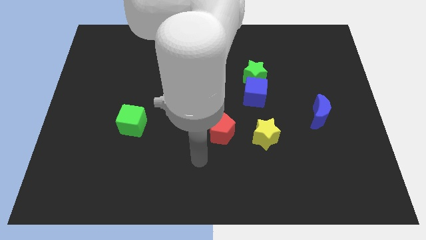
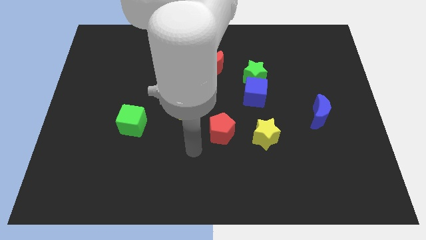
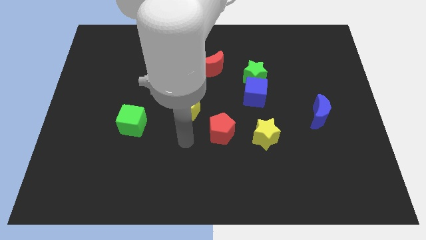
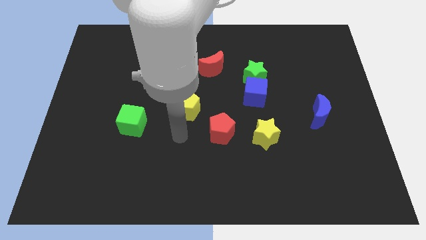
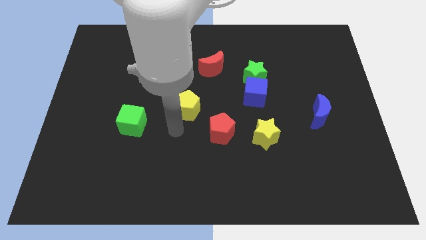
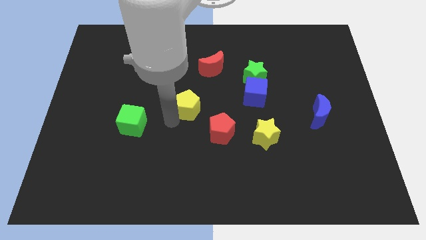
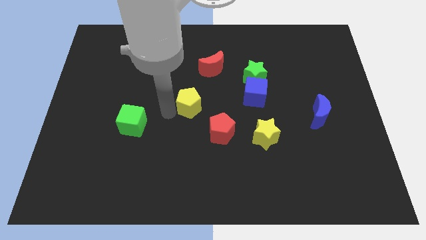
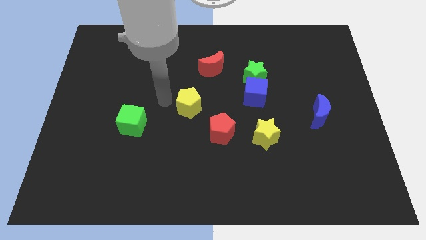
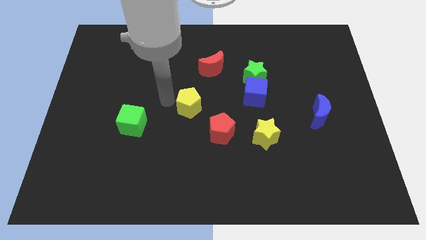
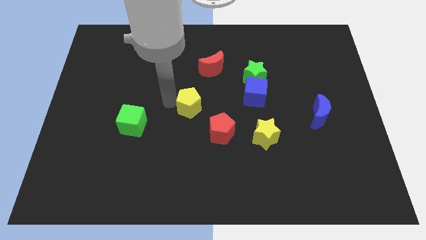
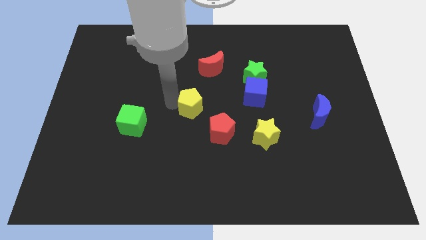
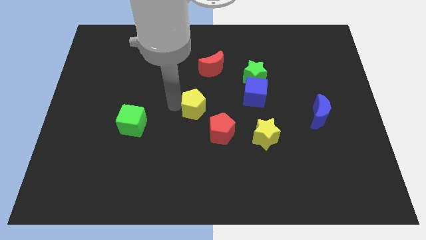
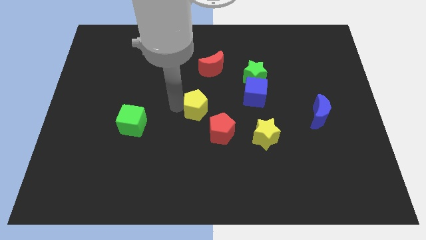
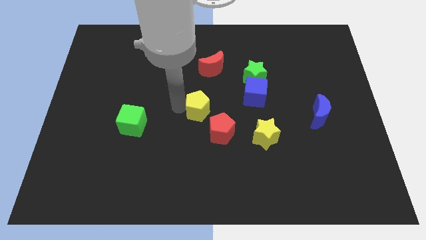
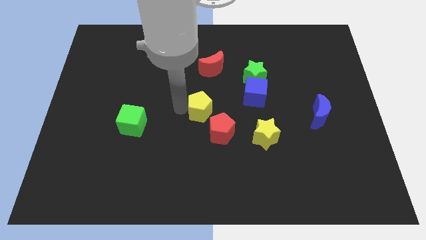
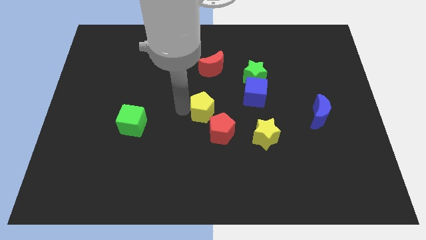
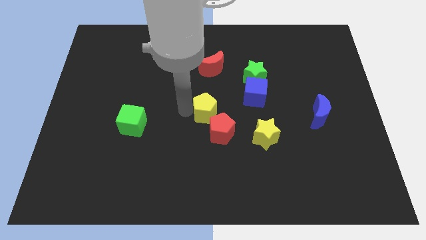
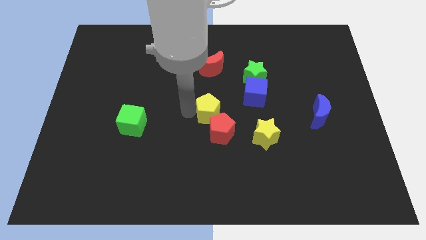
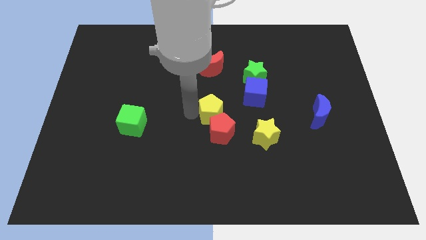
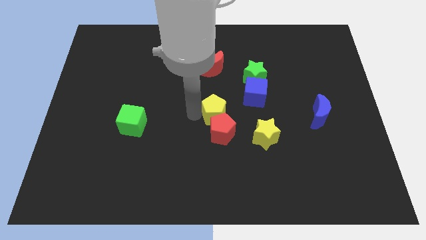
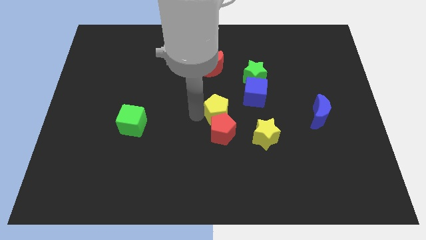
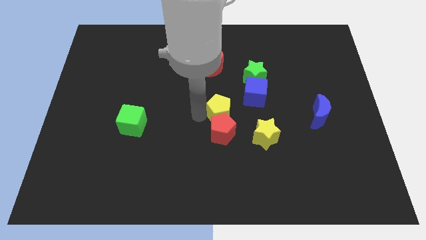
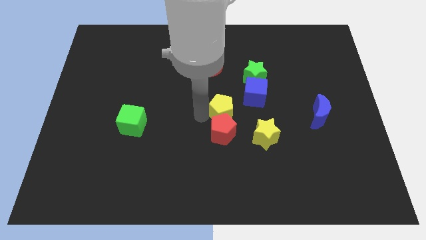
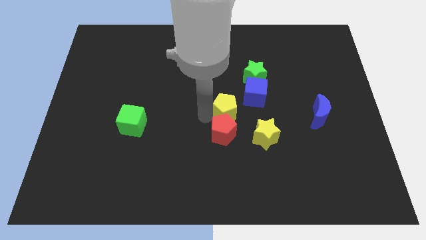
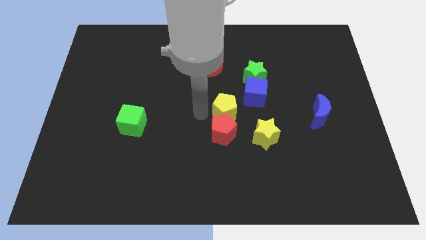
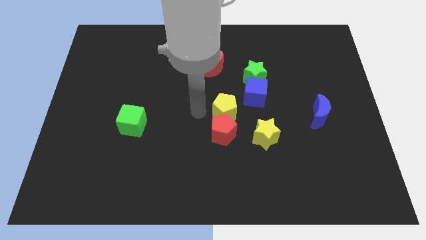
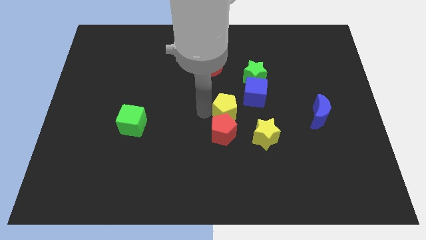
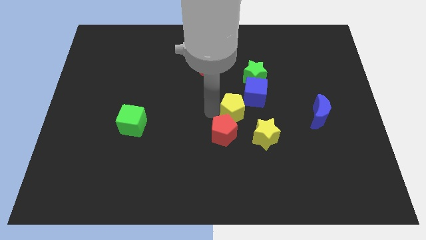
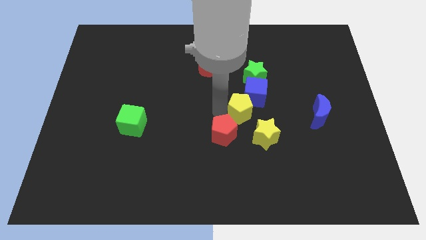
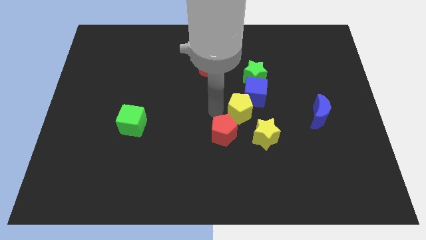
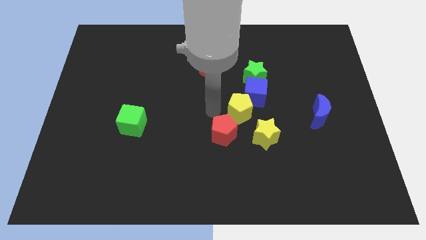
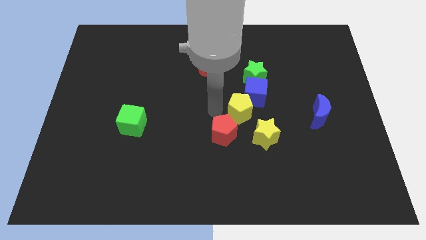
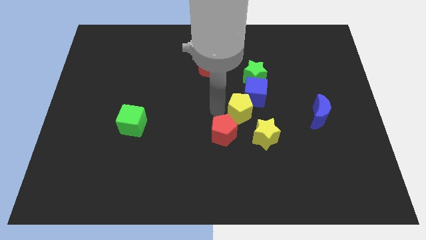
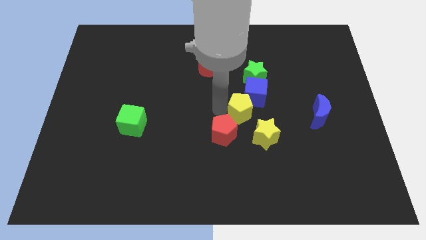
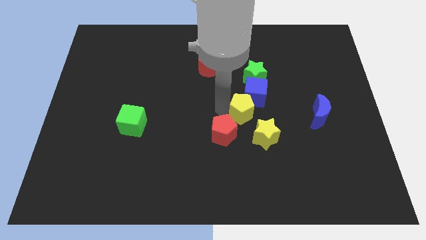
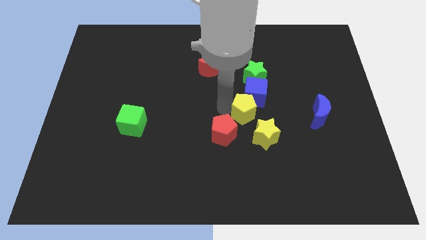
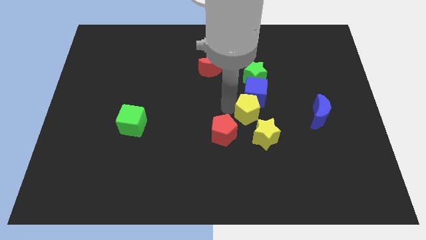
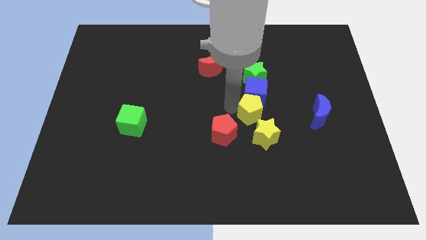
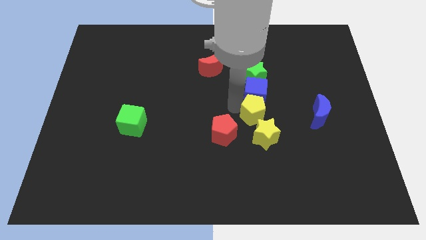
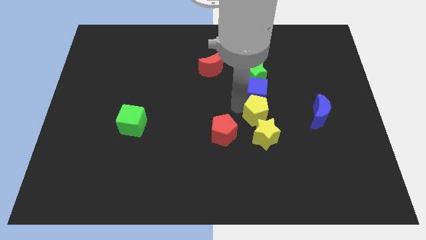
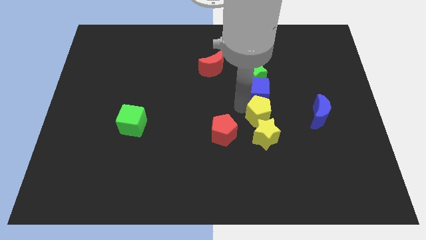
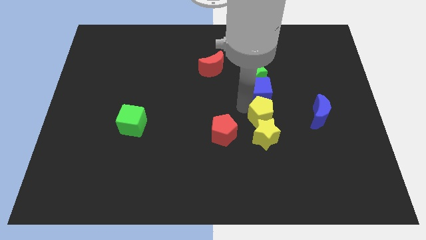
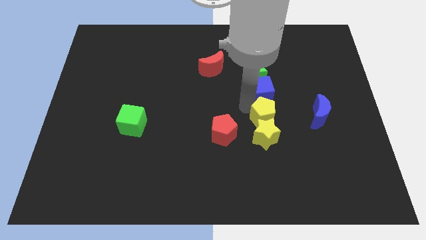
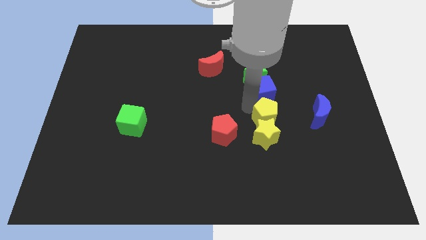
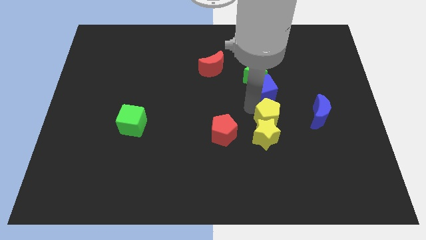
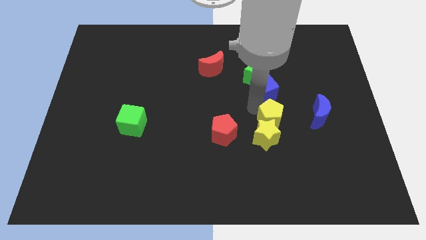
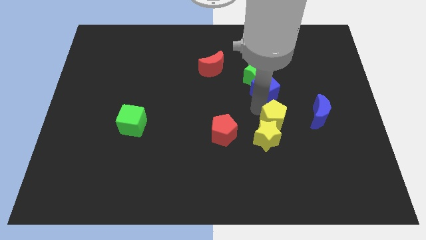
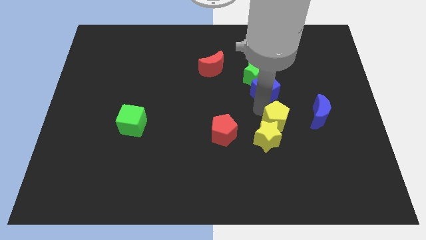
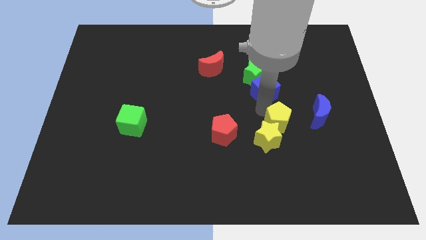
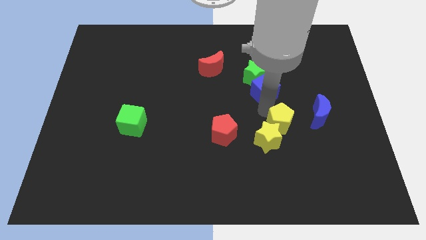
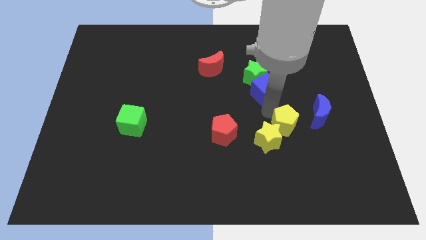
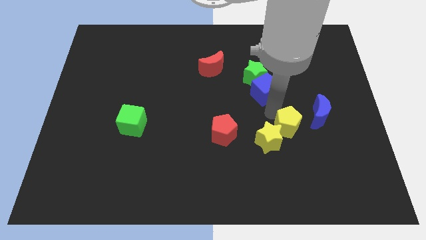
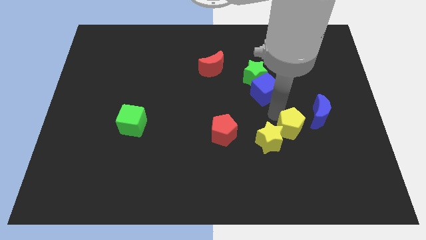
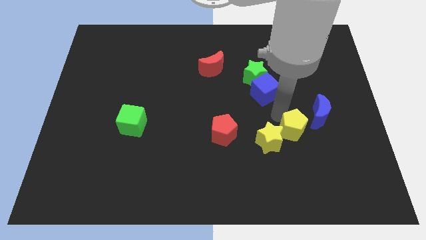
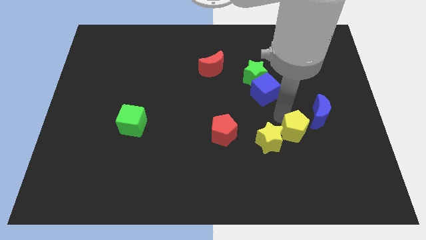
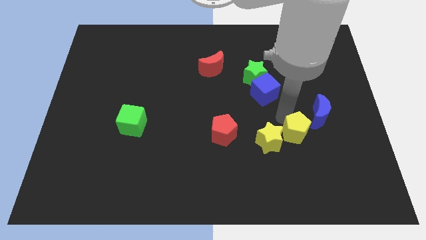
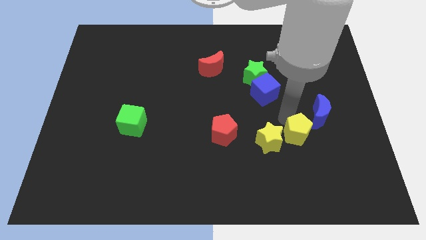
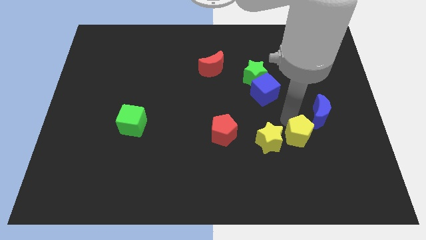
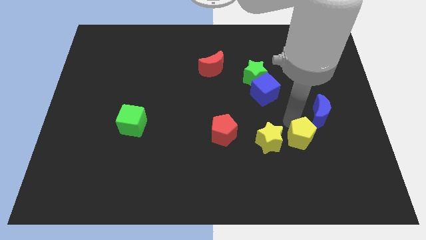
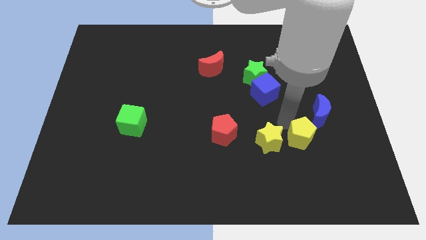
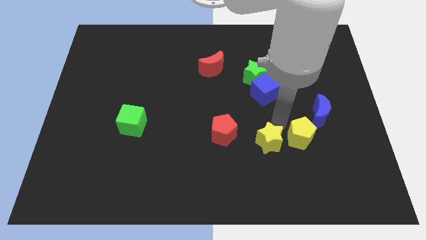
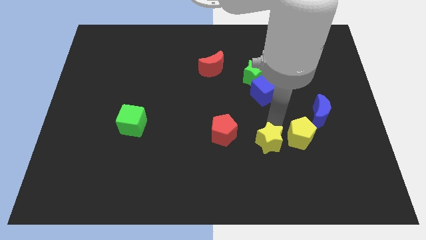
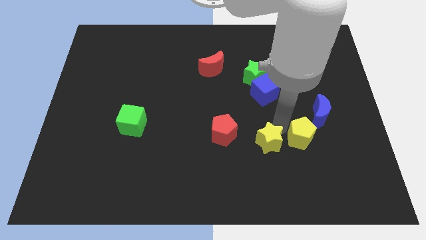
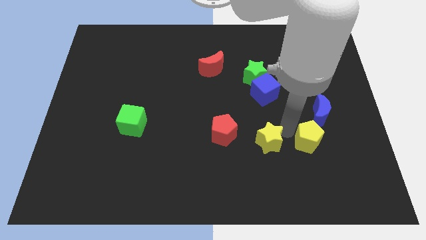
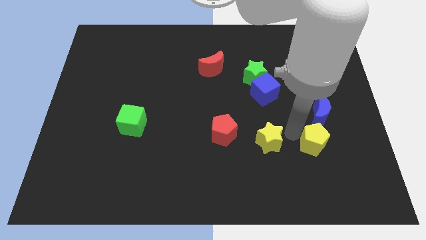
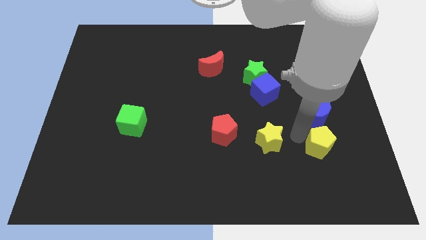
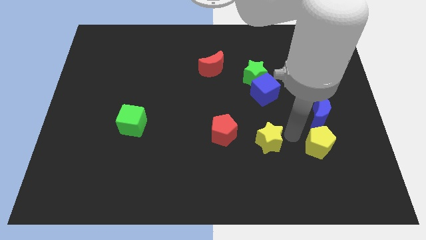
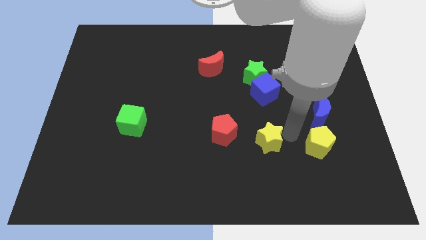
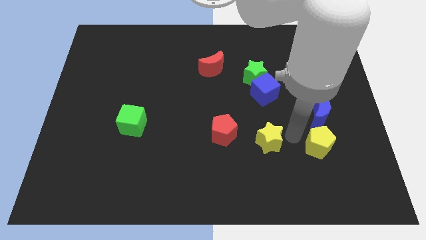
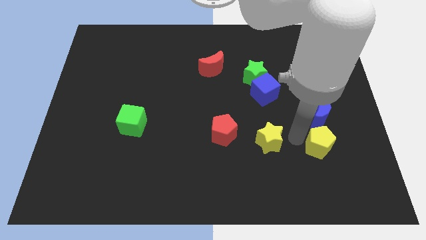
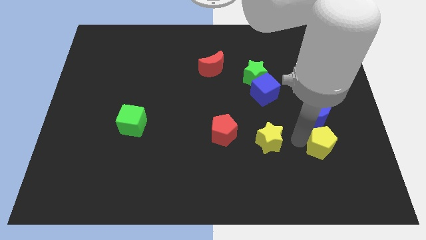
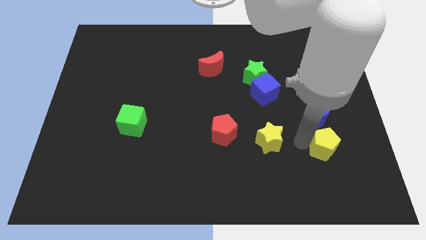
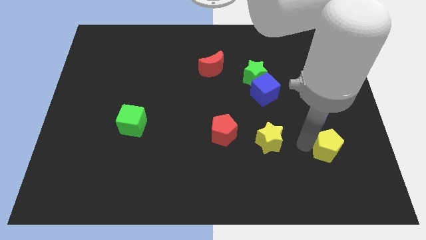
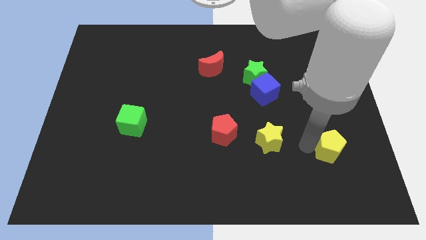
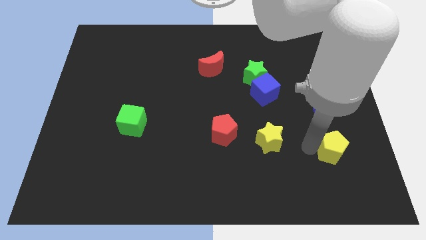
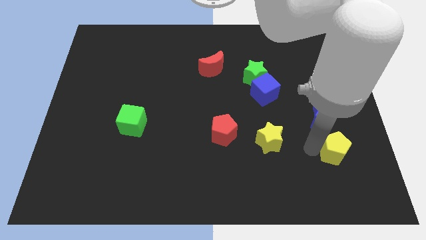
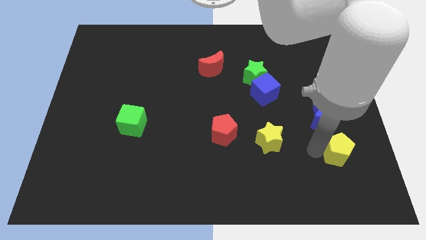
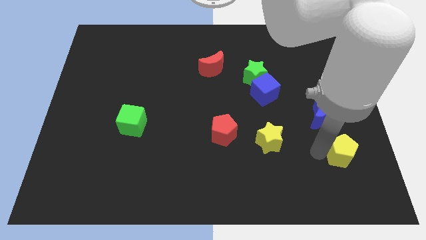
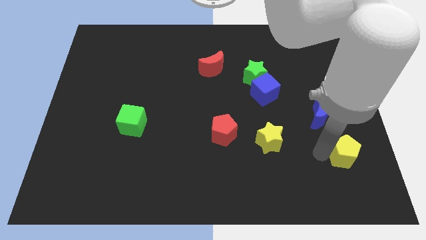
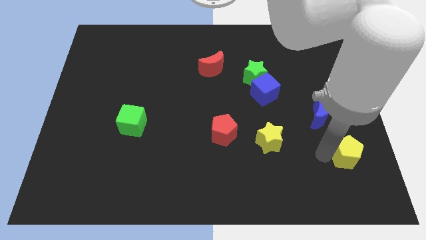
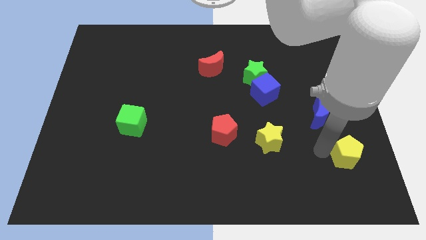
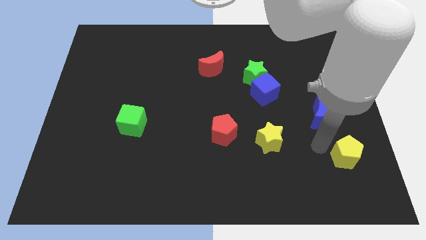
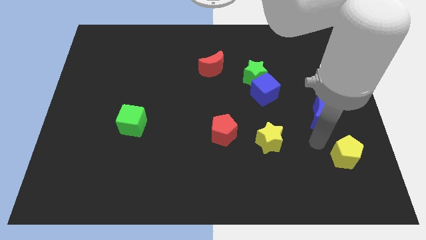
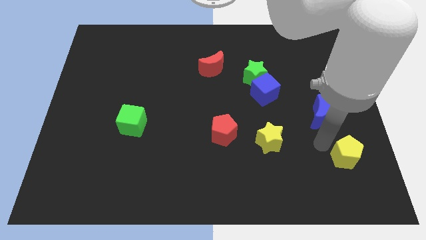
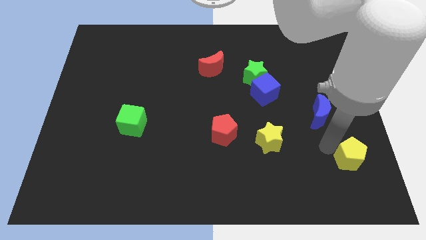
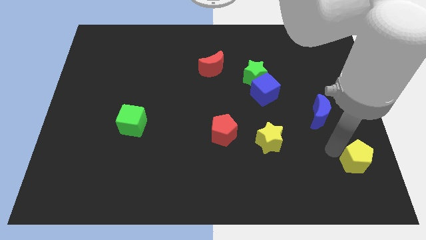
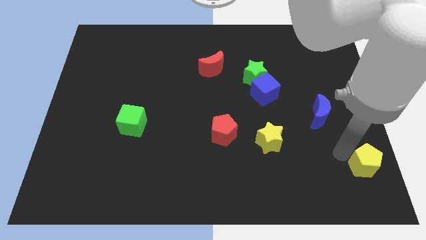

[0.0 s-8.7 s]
move the yellow pentagon to the bottom right corner
